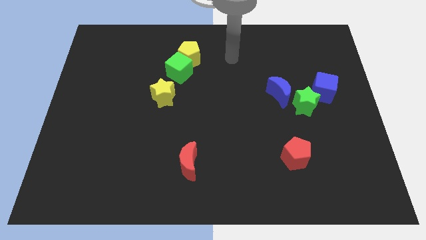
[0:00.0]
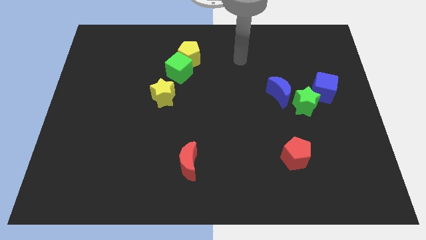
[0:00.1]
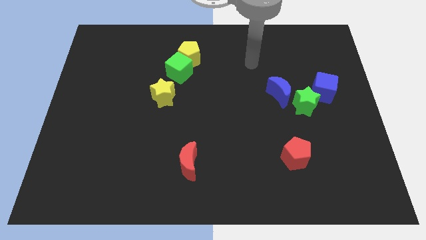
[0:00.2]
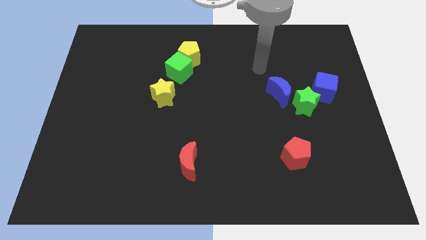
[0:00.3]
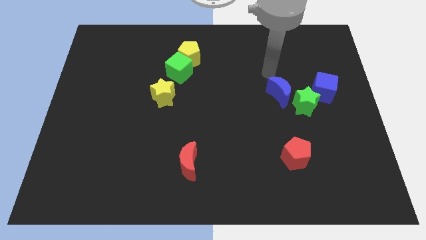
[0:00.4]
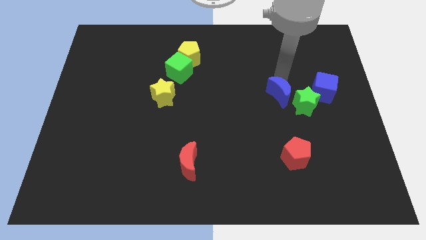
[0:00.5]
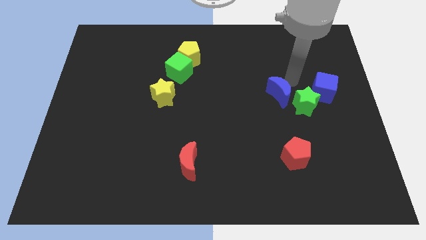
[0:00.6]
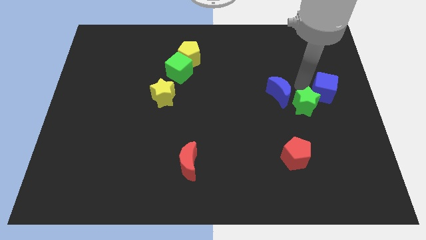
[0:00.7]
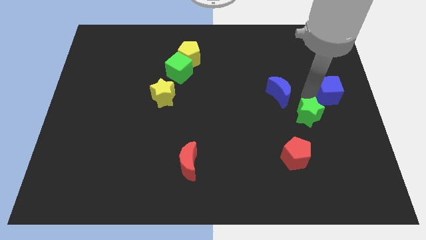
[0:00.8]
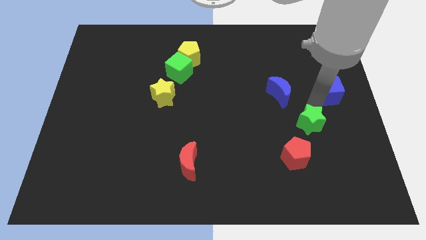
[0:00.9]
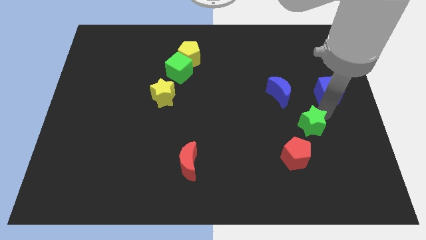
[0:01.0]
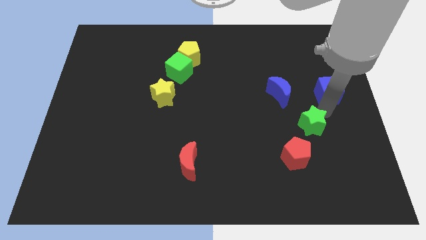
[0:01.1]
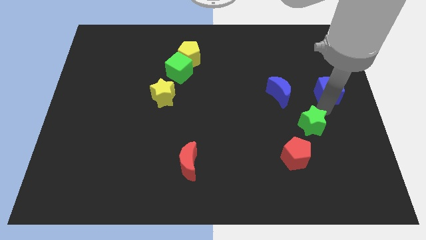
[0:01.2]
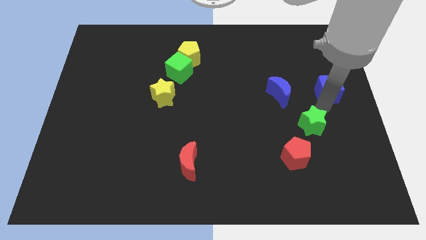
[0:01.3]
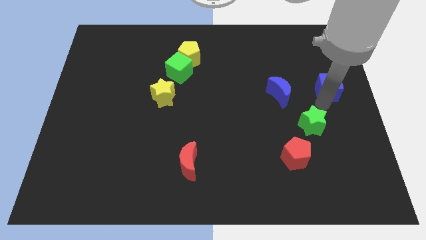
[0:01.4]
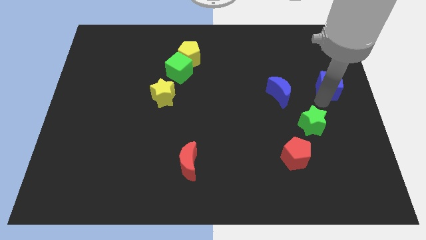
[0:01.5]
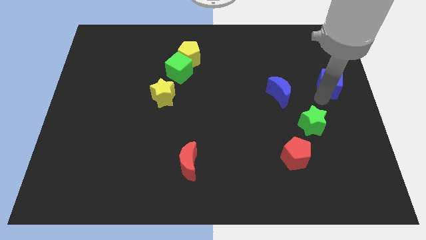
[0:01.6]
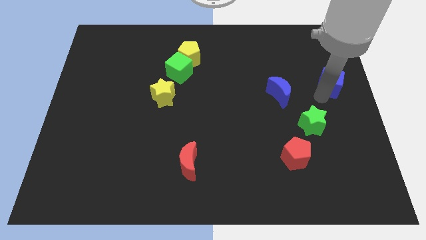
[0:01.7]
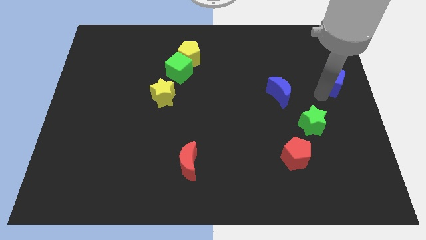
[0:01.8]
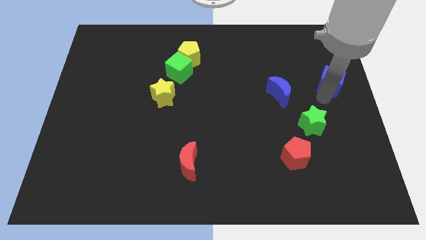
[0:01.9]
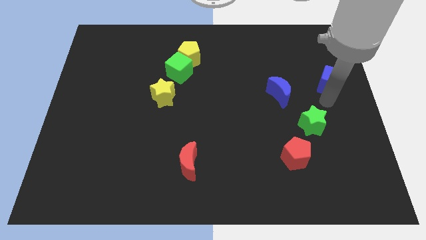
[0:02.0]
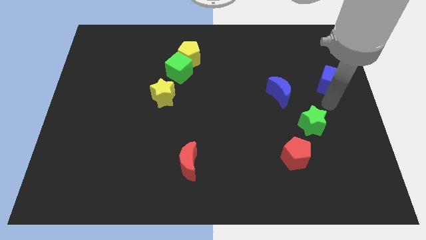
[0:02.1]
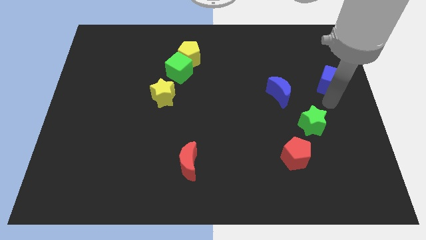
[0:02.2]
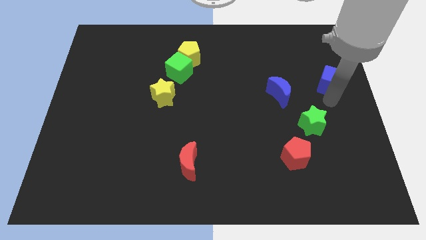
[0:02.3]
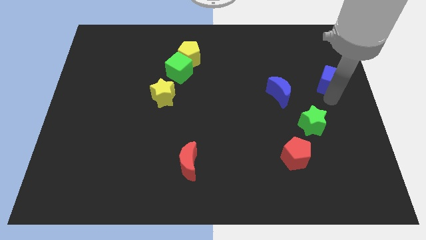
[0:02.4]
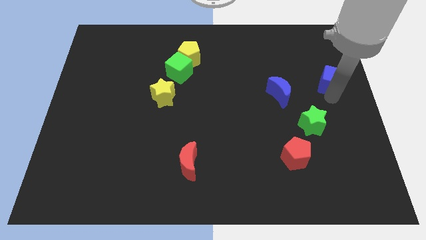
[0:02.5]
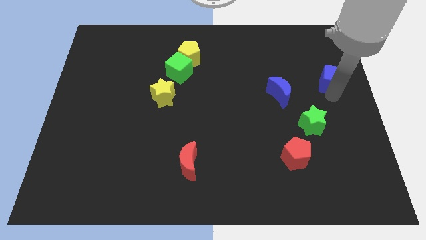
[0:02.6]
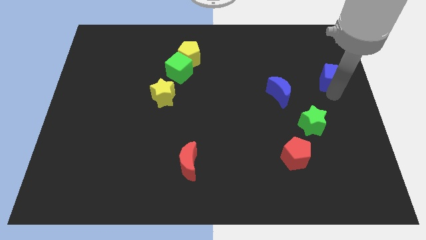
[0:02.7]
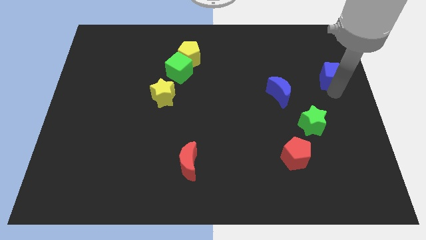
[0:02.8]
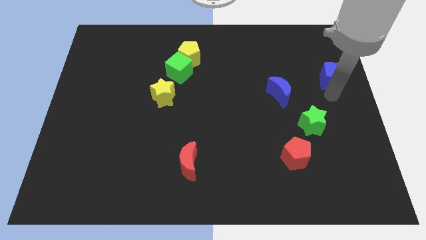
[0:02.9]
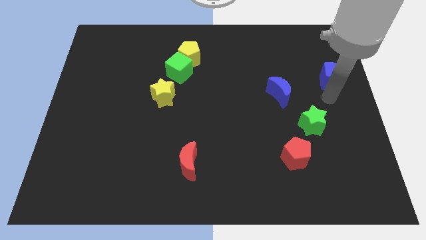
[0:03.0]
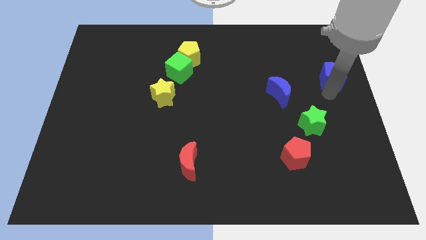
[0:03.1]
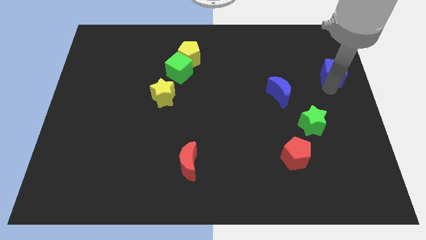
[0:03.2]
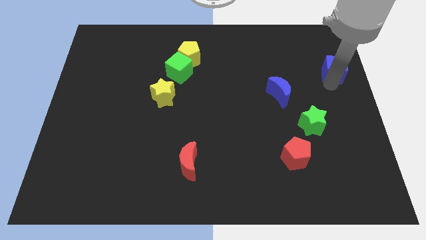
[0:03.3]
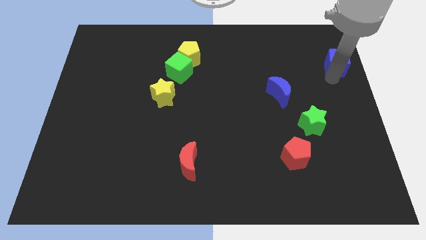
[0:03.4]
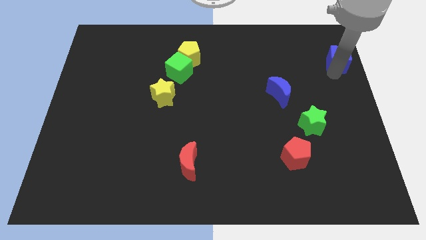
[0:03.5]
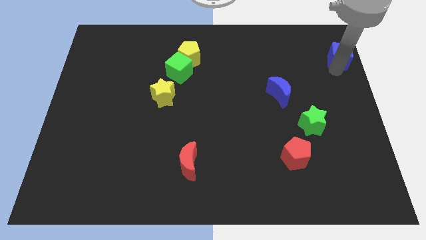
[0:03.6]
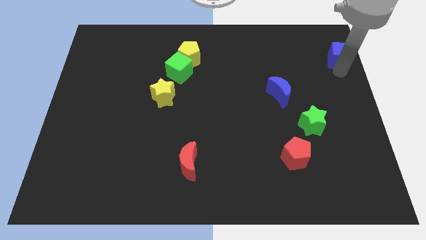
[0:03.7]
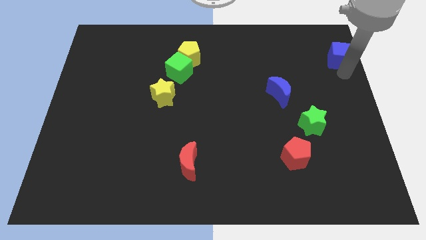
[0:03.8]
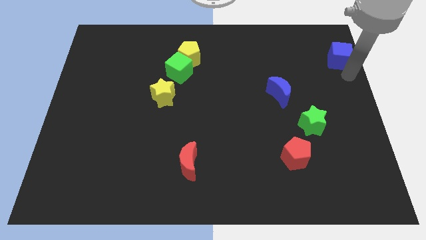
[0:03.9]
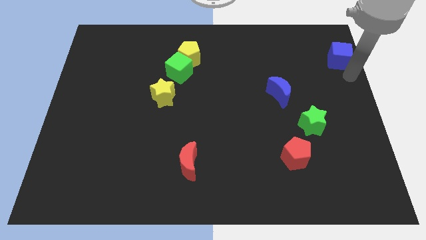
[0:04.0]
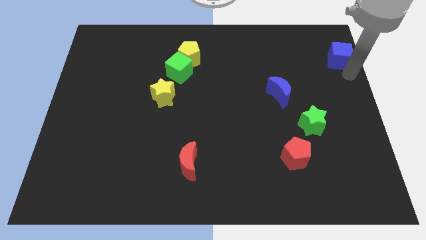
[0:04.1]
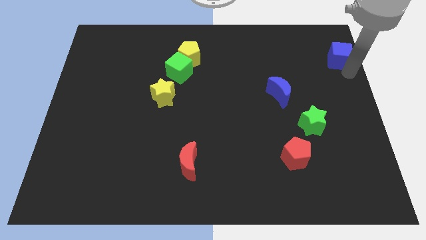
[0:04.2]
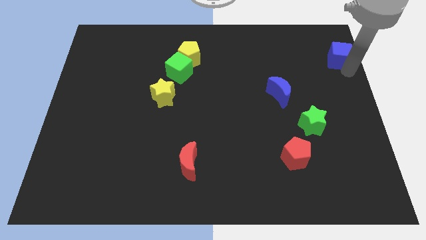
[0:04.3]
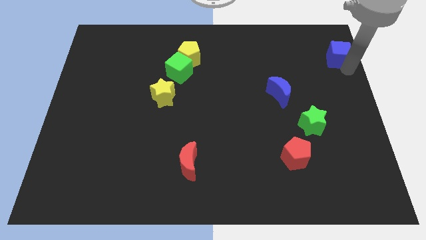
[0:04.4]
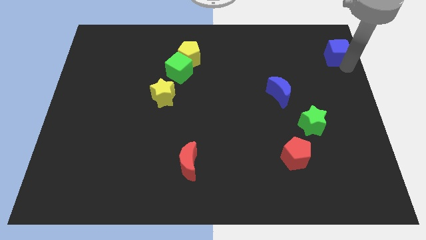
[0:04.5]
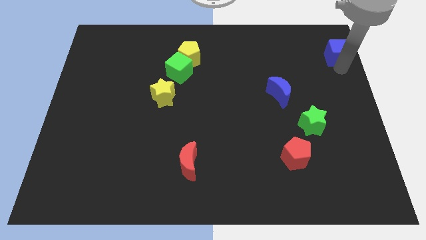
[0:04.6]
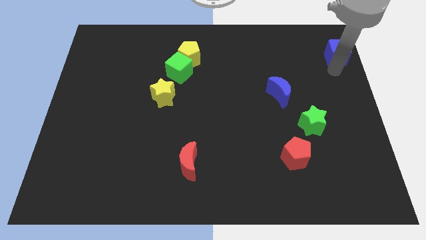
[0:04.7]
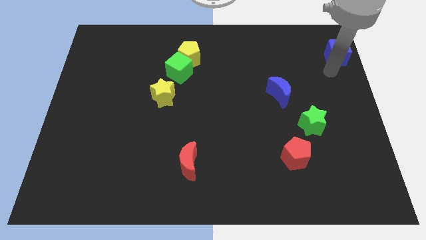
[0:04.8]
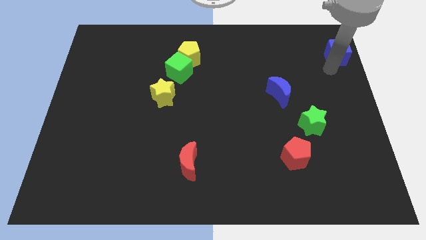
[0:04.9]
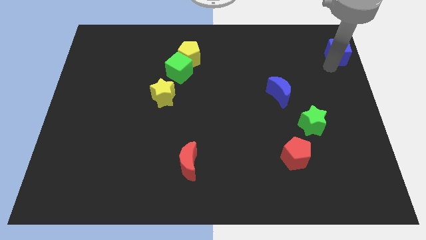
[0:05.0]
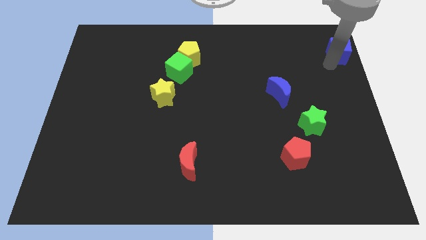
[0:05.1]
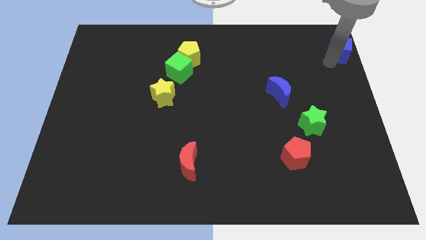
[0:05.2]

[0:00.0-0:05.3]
slide the blue cube to the top right

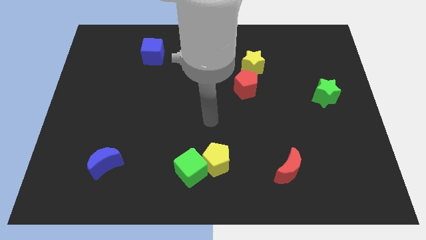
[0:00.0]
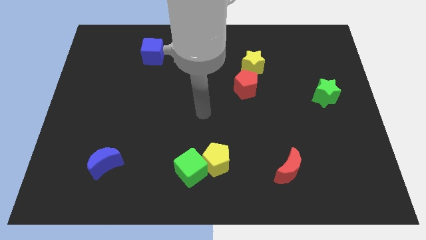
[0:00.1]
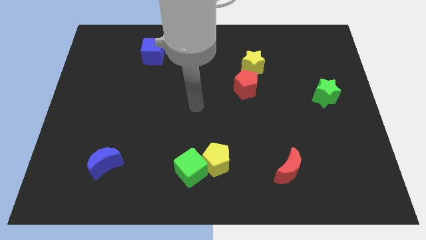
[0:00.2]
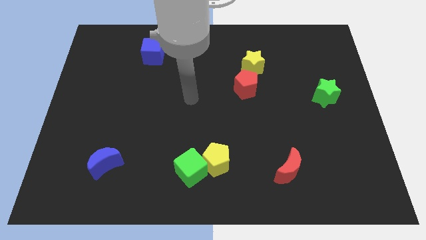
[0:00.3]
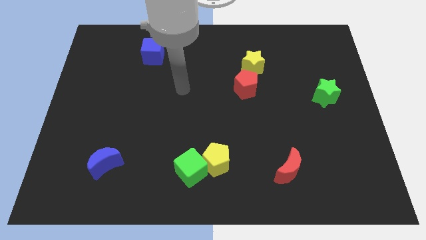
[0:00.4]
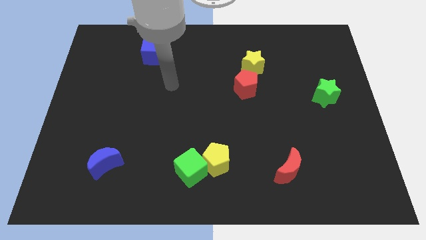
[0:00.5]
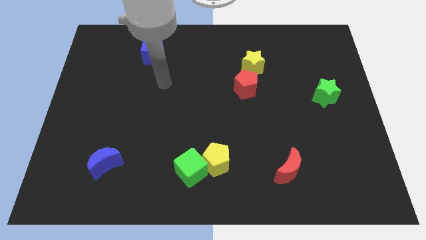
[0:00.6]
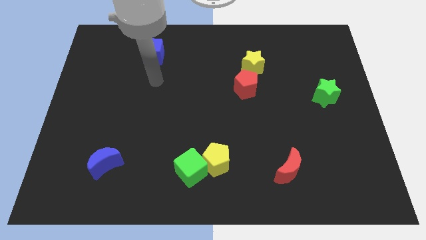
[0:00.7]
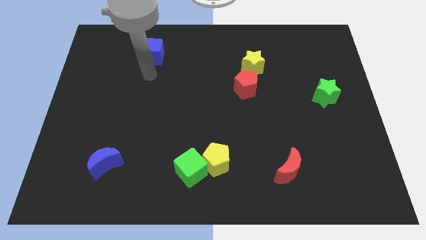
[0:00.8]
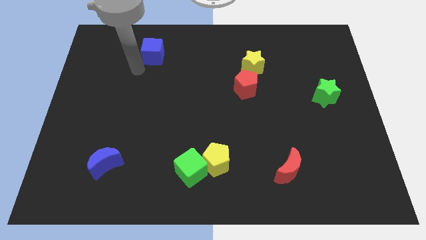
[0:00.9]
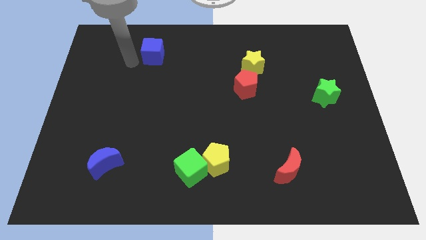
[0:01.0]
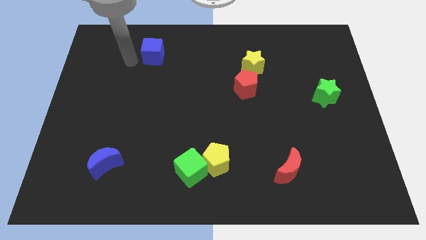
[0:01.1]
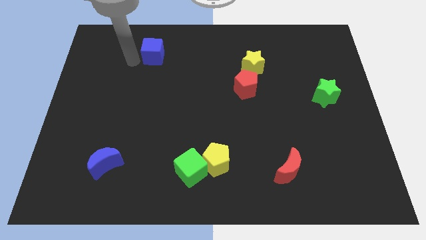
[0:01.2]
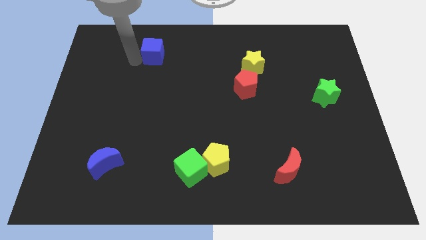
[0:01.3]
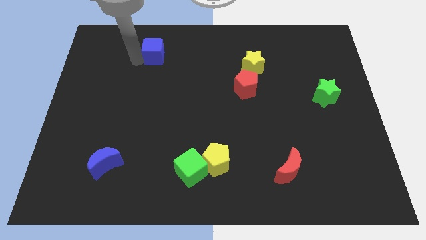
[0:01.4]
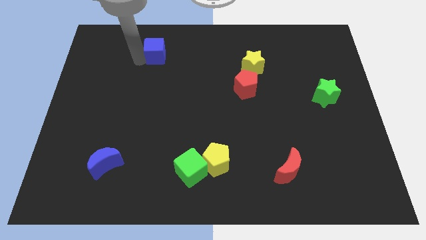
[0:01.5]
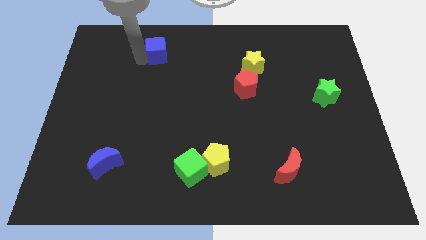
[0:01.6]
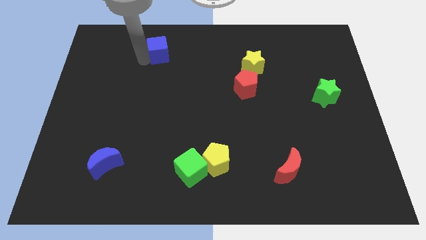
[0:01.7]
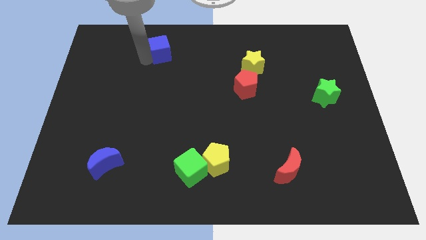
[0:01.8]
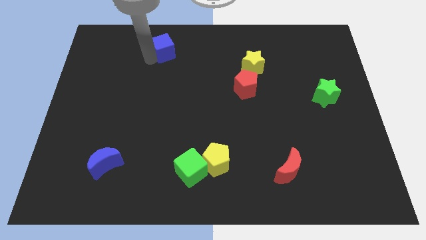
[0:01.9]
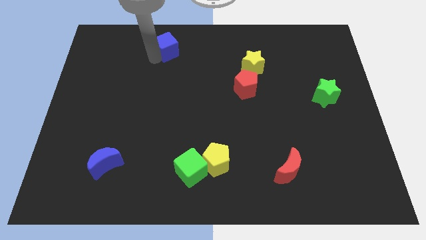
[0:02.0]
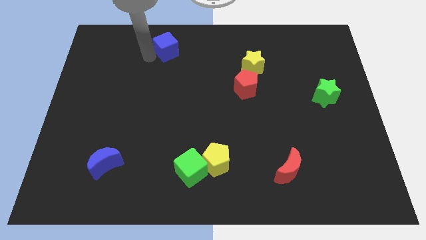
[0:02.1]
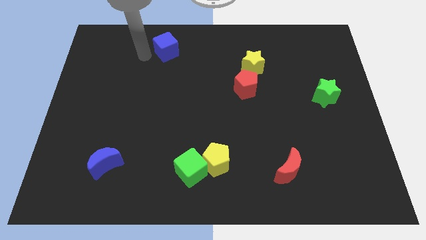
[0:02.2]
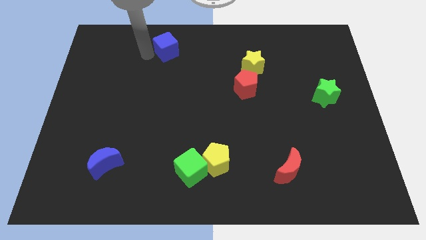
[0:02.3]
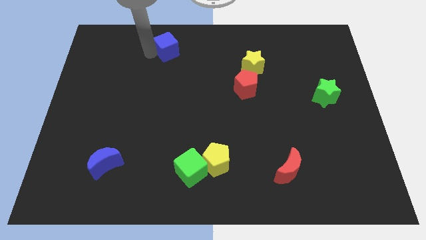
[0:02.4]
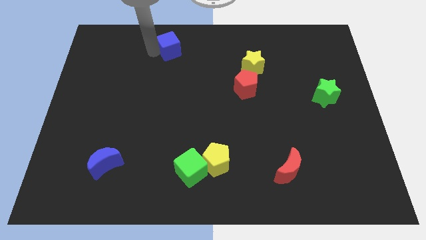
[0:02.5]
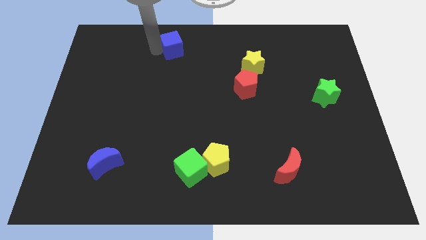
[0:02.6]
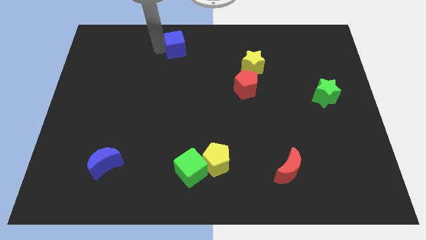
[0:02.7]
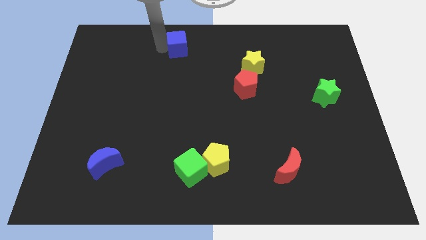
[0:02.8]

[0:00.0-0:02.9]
slide the blue cube to the top side
